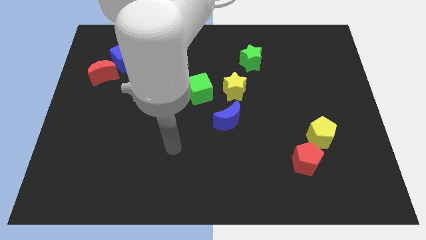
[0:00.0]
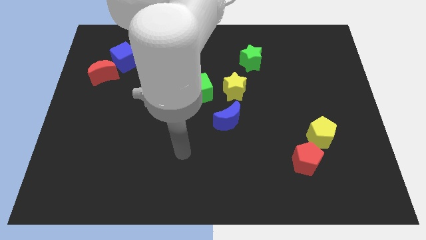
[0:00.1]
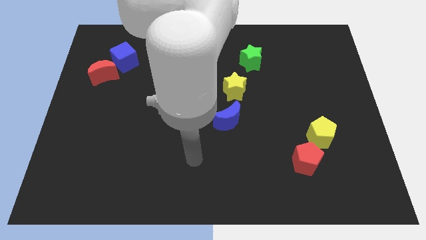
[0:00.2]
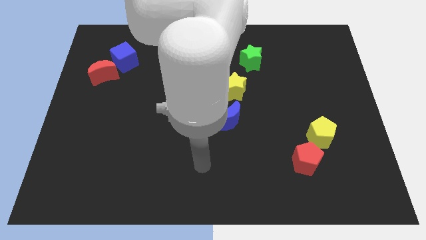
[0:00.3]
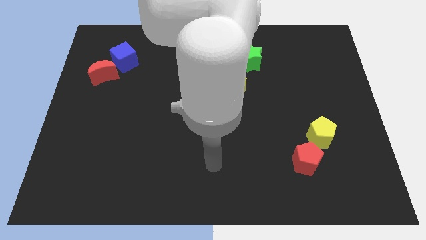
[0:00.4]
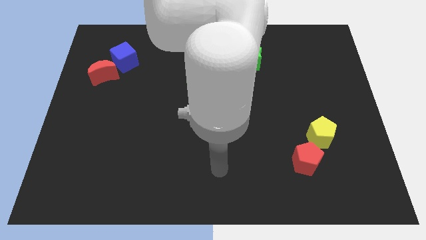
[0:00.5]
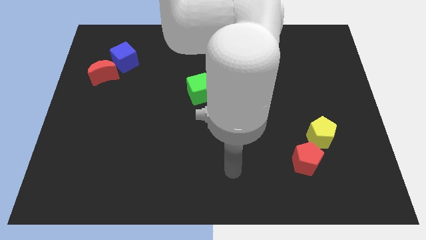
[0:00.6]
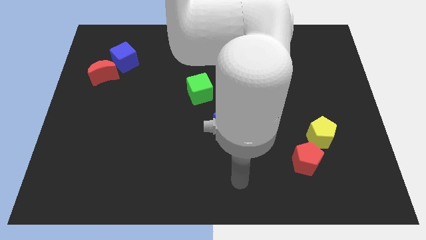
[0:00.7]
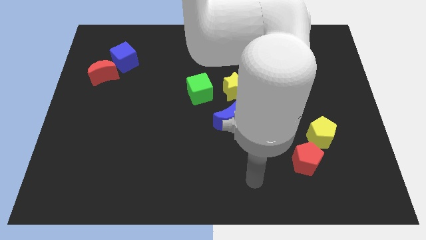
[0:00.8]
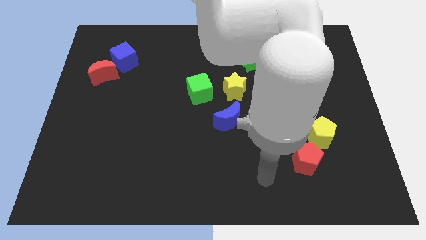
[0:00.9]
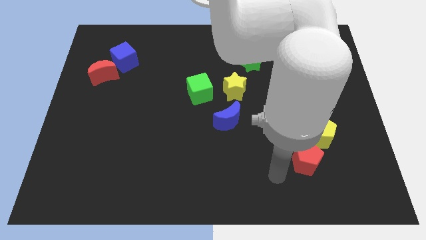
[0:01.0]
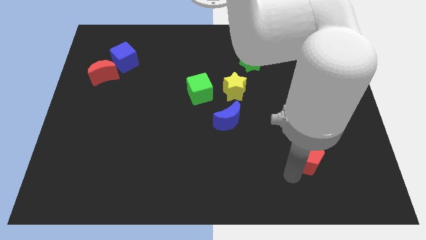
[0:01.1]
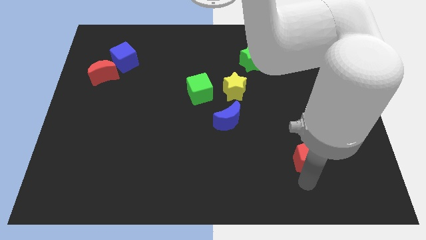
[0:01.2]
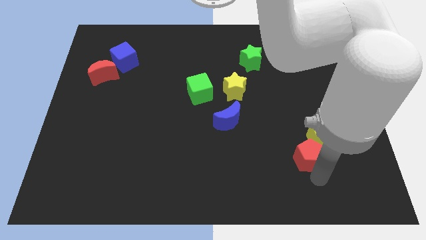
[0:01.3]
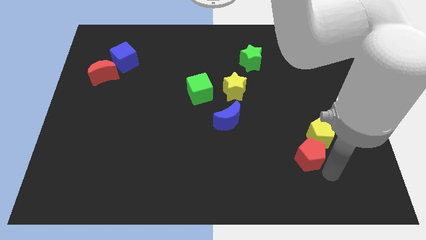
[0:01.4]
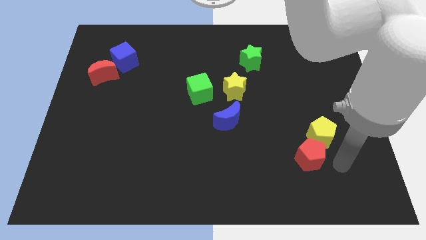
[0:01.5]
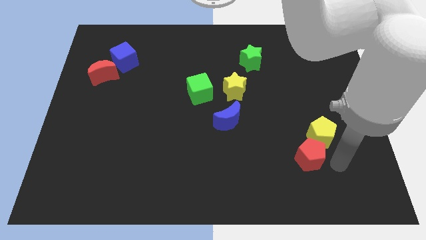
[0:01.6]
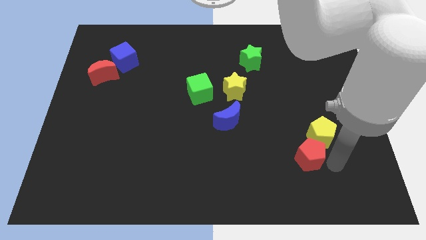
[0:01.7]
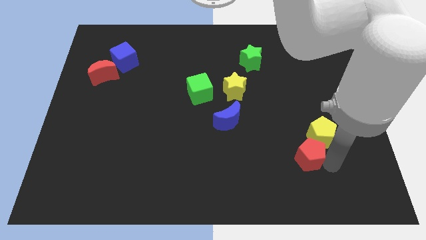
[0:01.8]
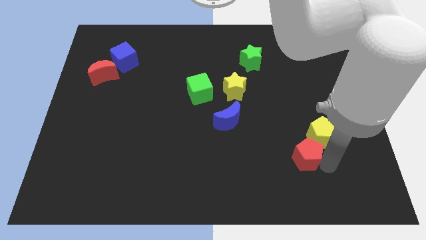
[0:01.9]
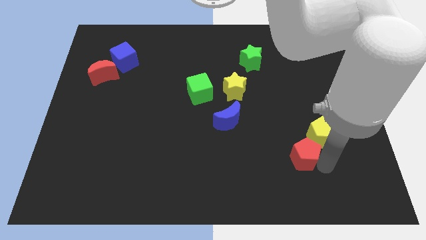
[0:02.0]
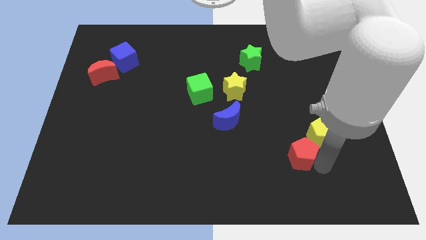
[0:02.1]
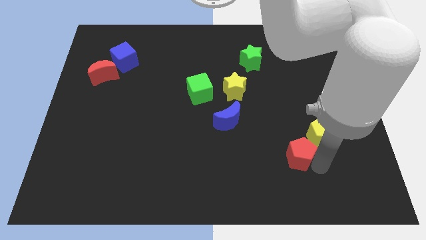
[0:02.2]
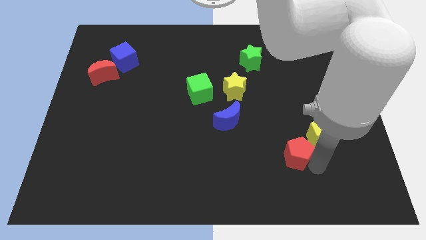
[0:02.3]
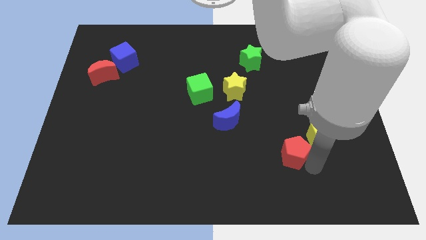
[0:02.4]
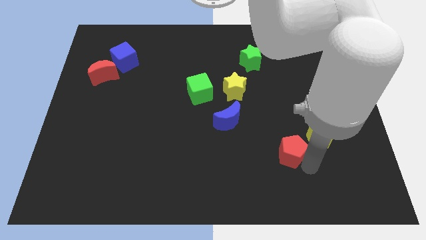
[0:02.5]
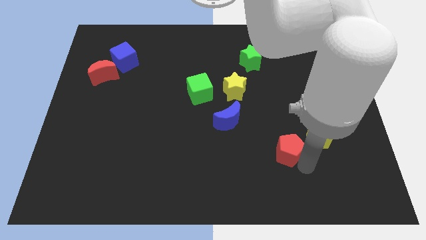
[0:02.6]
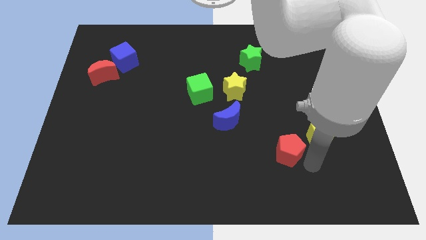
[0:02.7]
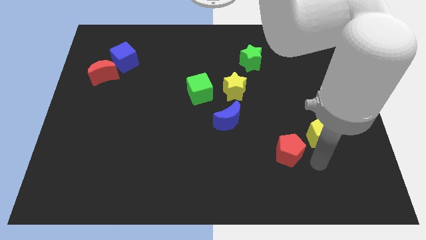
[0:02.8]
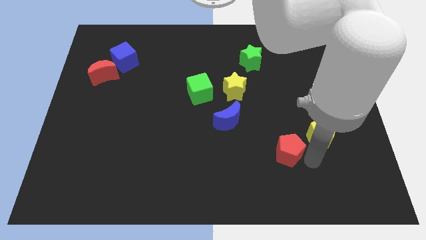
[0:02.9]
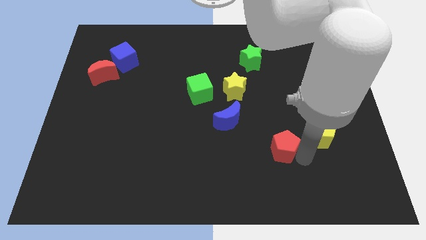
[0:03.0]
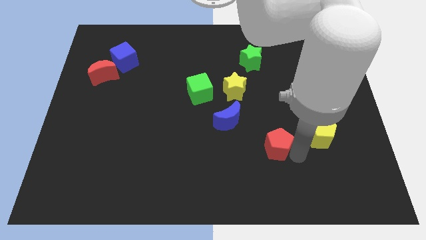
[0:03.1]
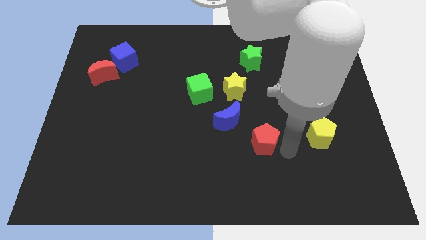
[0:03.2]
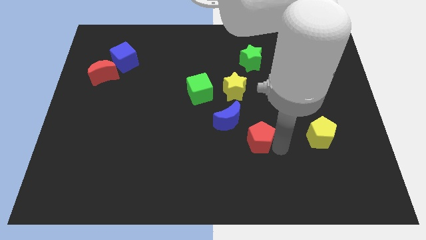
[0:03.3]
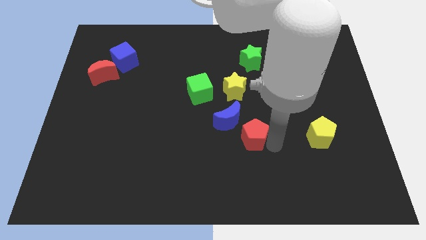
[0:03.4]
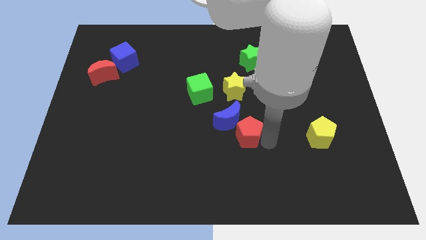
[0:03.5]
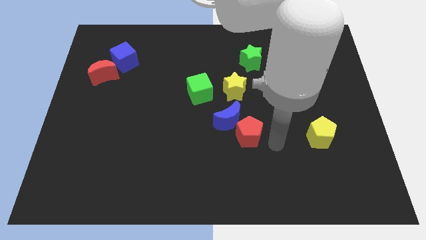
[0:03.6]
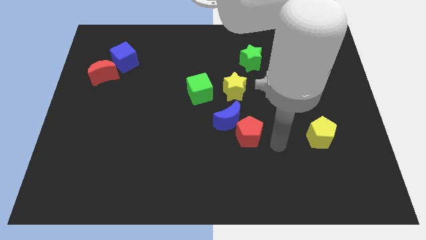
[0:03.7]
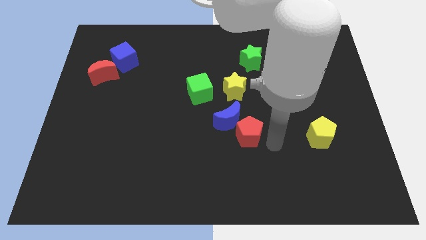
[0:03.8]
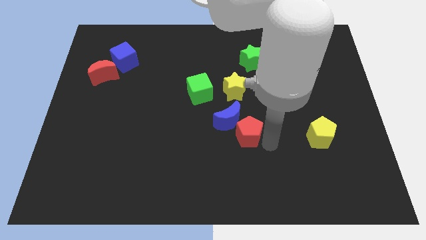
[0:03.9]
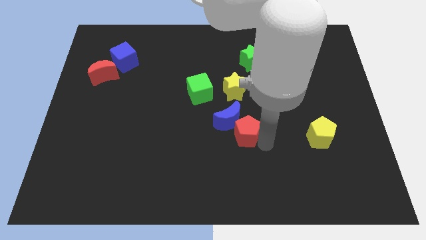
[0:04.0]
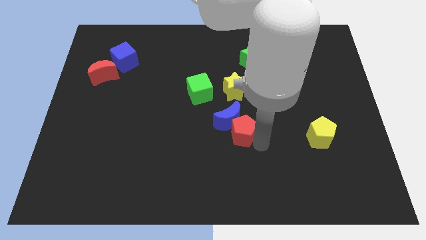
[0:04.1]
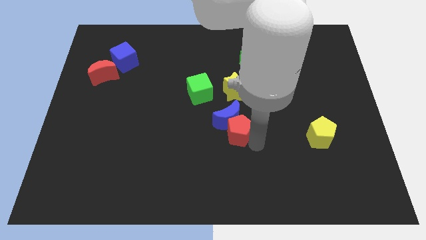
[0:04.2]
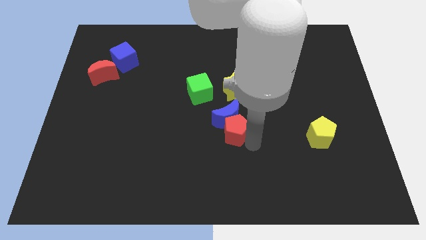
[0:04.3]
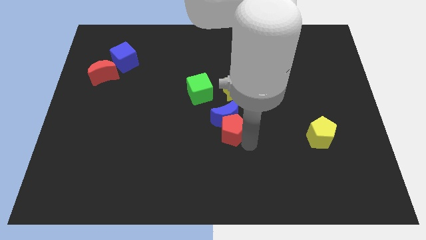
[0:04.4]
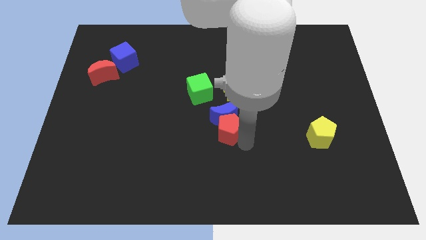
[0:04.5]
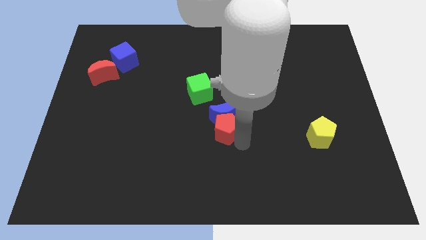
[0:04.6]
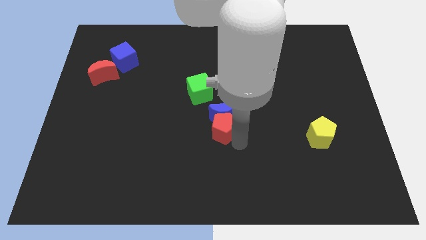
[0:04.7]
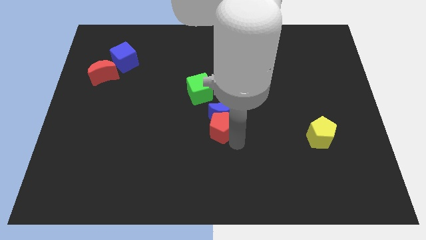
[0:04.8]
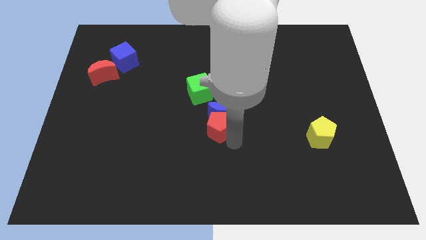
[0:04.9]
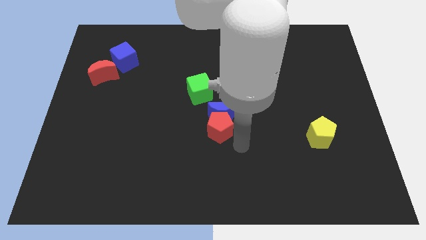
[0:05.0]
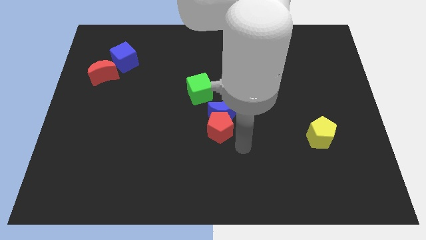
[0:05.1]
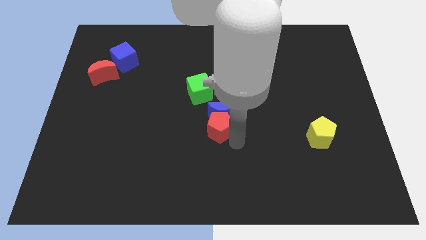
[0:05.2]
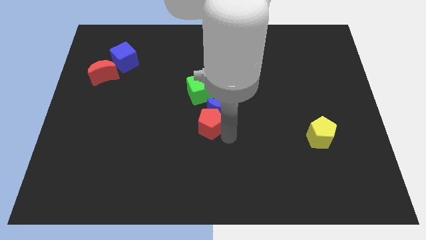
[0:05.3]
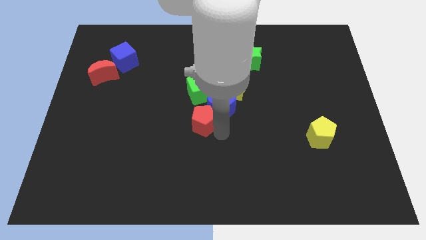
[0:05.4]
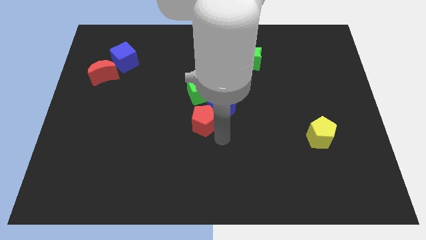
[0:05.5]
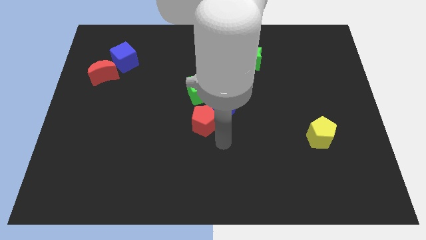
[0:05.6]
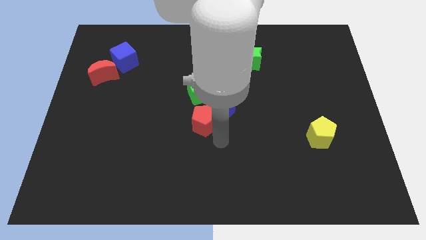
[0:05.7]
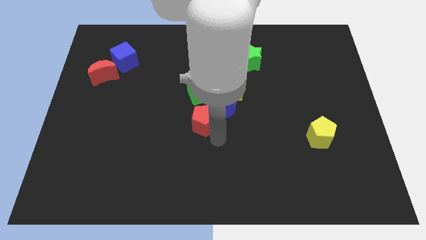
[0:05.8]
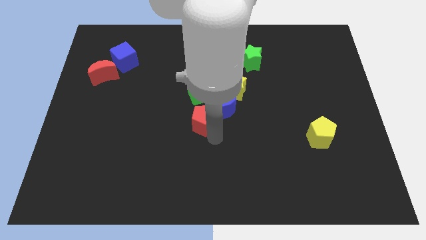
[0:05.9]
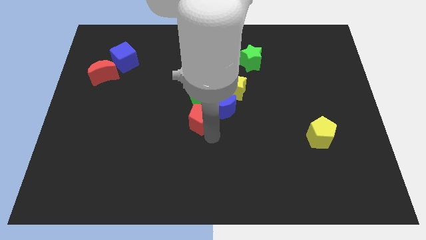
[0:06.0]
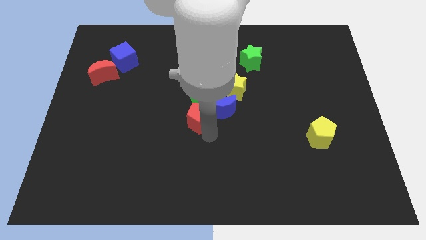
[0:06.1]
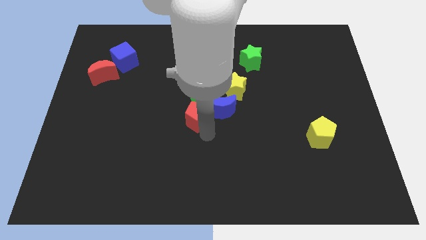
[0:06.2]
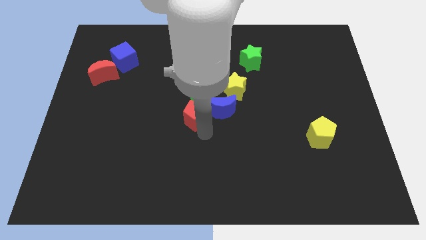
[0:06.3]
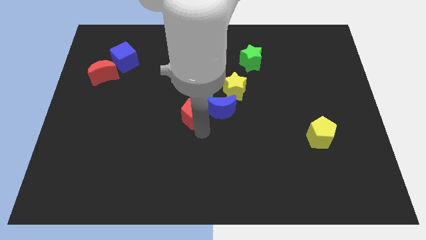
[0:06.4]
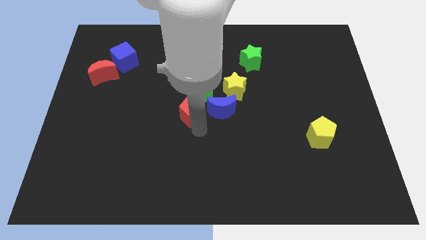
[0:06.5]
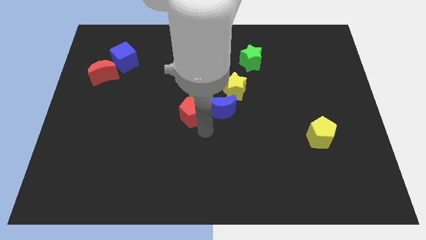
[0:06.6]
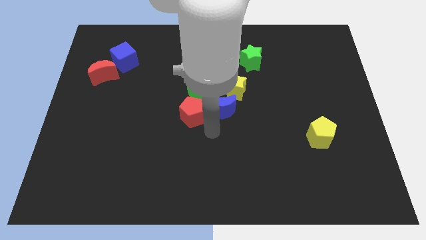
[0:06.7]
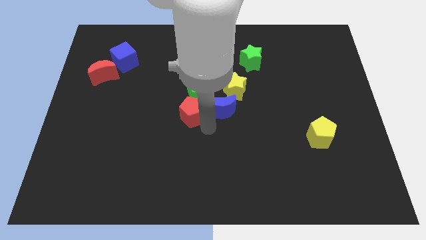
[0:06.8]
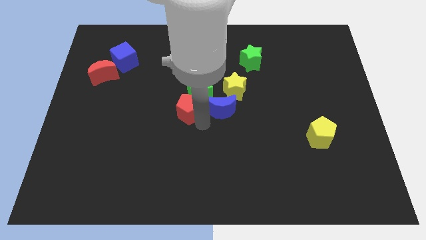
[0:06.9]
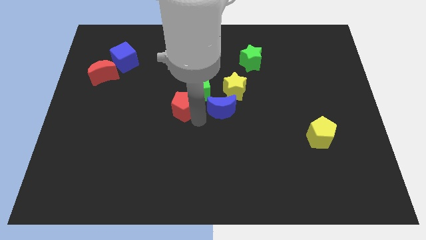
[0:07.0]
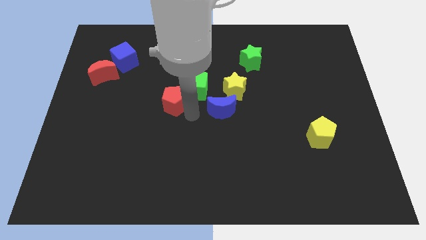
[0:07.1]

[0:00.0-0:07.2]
push the red pentagon just left of the green cube
